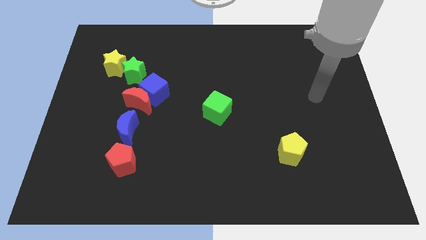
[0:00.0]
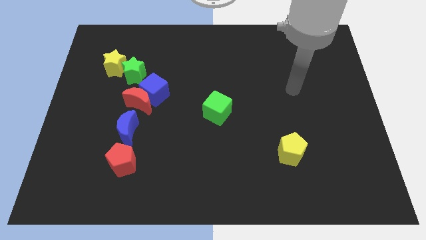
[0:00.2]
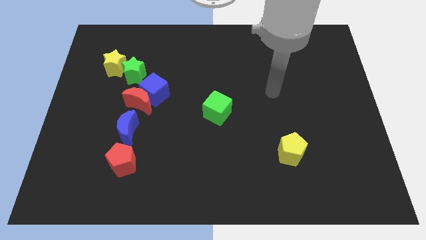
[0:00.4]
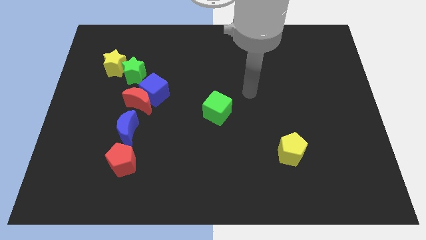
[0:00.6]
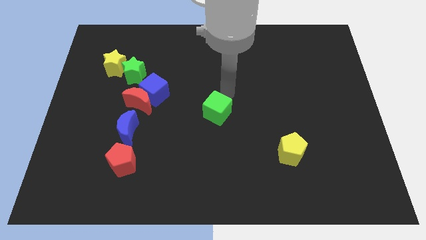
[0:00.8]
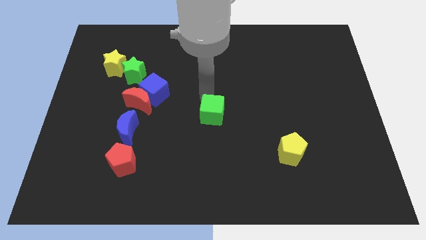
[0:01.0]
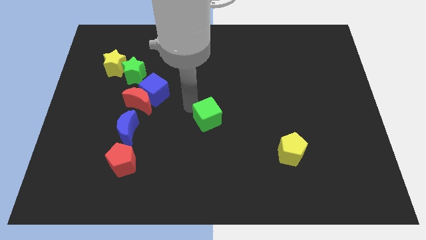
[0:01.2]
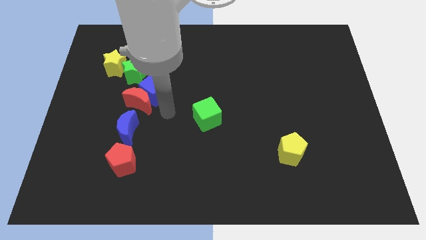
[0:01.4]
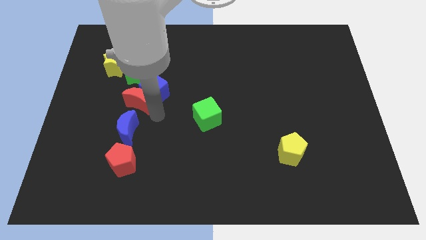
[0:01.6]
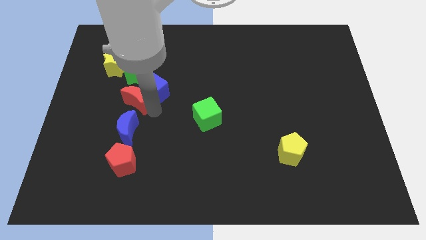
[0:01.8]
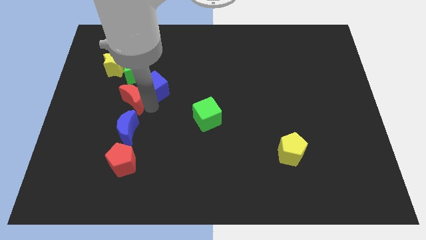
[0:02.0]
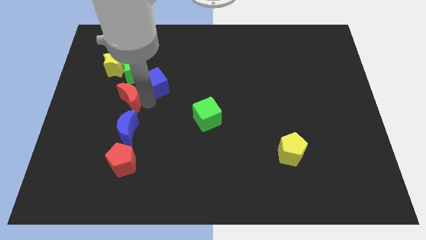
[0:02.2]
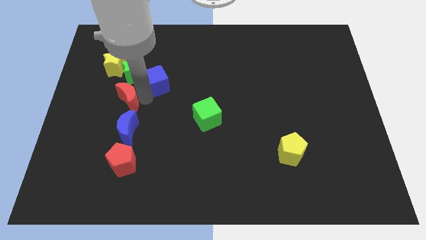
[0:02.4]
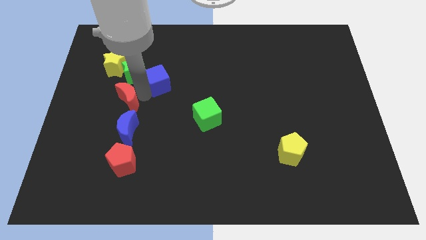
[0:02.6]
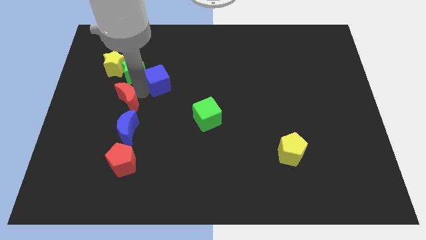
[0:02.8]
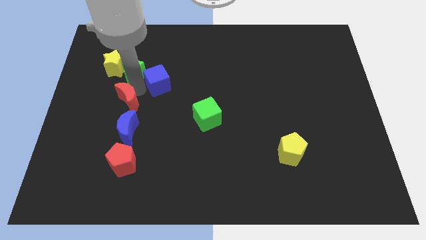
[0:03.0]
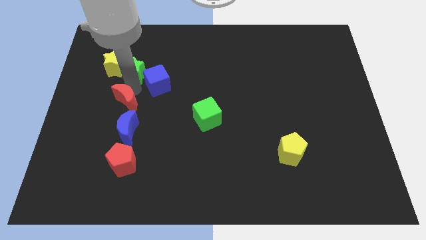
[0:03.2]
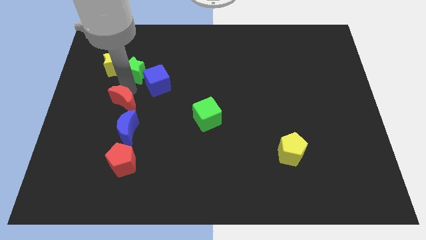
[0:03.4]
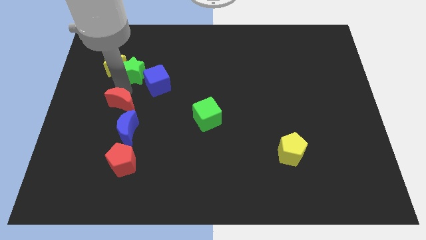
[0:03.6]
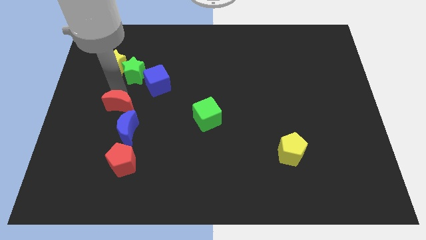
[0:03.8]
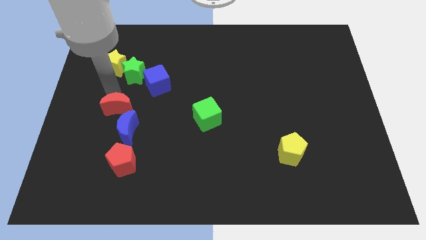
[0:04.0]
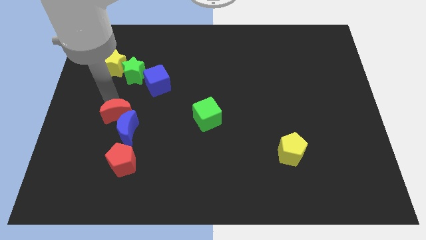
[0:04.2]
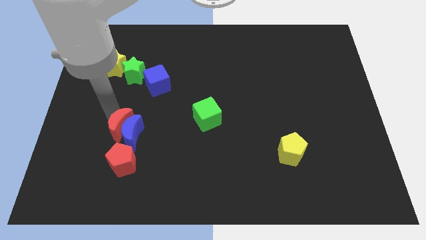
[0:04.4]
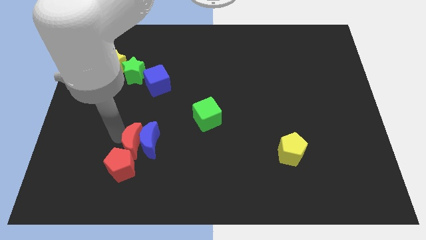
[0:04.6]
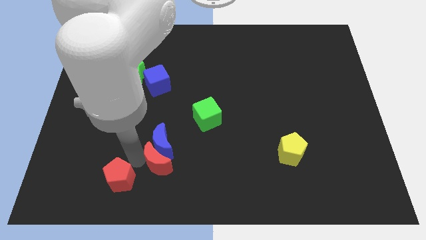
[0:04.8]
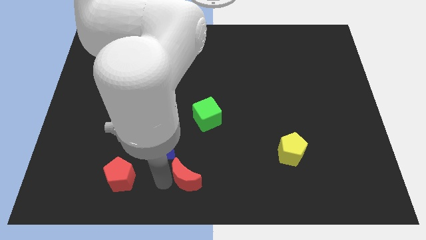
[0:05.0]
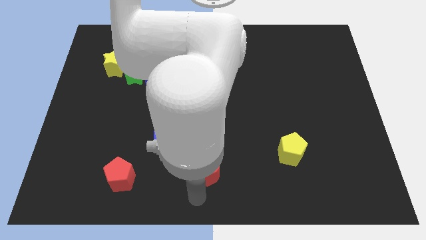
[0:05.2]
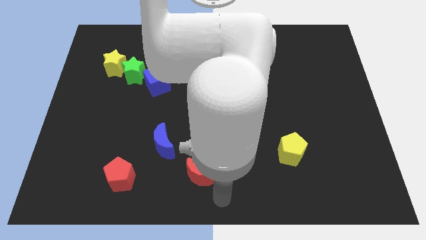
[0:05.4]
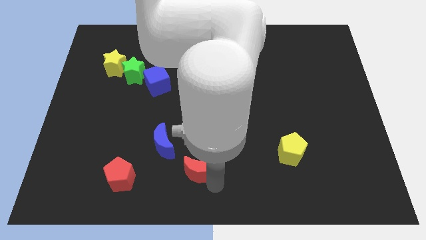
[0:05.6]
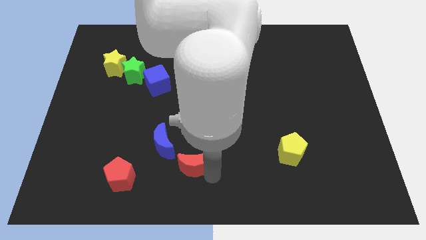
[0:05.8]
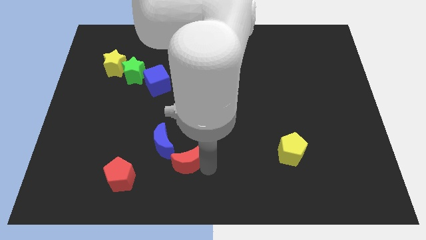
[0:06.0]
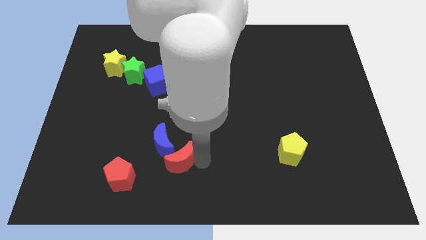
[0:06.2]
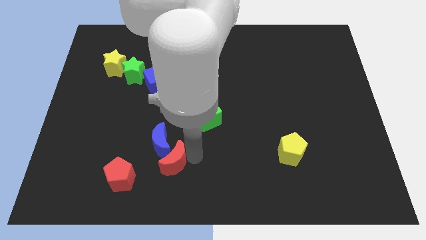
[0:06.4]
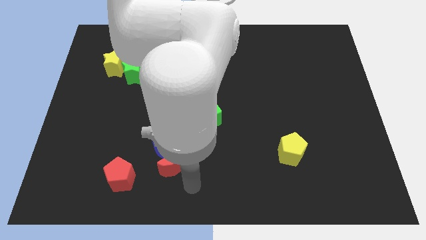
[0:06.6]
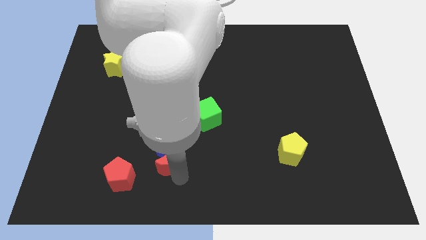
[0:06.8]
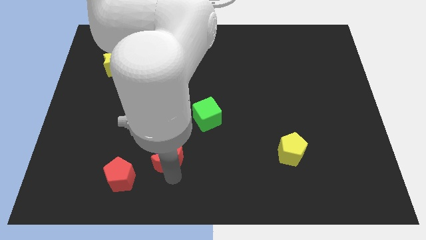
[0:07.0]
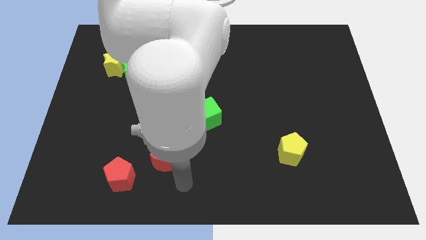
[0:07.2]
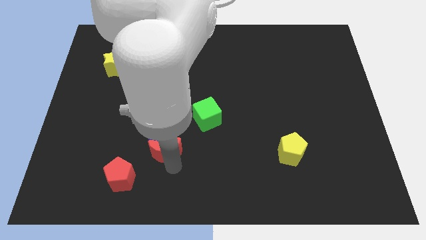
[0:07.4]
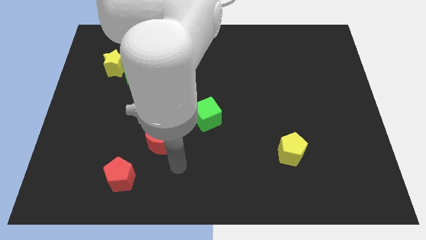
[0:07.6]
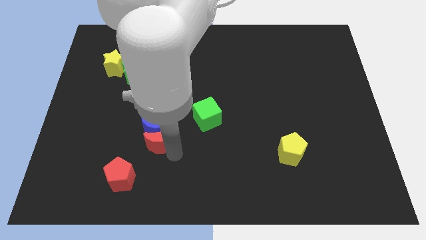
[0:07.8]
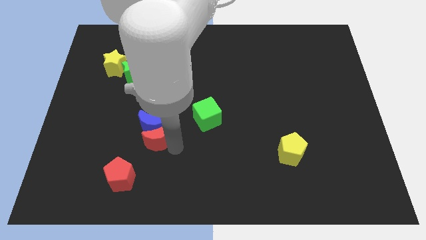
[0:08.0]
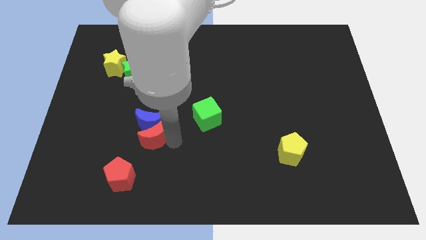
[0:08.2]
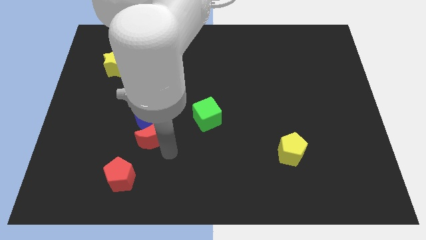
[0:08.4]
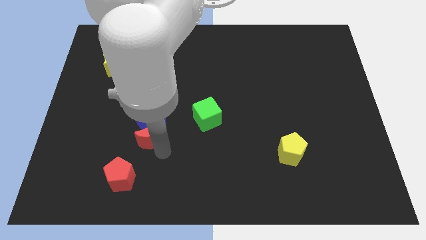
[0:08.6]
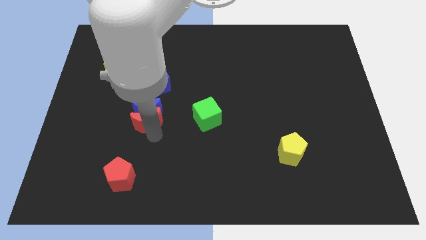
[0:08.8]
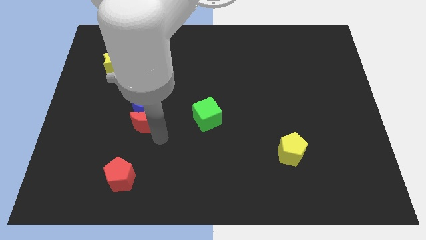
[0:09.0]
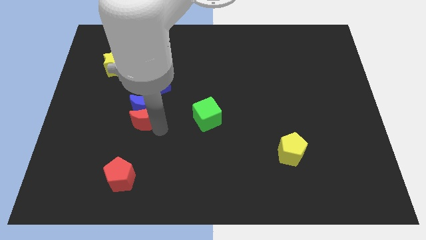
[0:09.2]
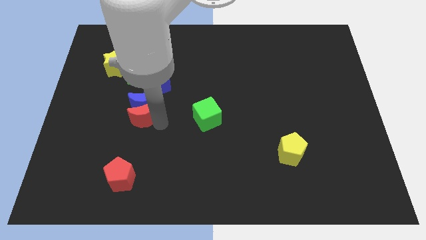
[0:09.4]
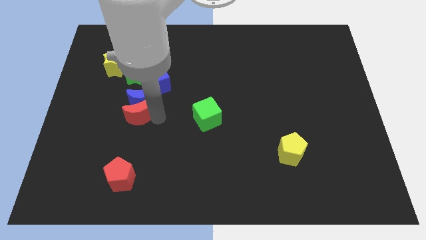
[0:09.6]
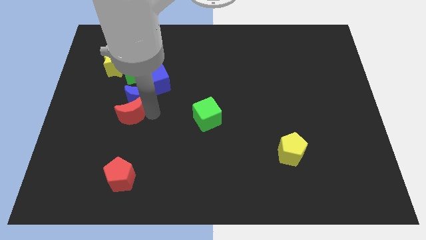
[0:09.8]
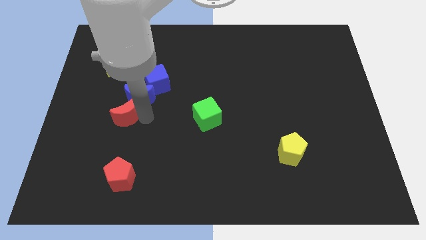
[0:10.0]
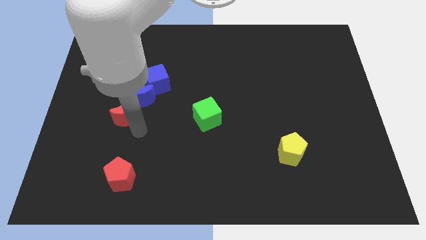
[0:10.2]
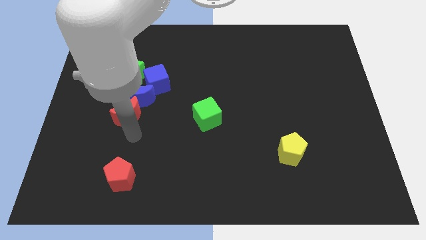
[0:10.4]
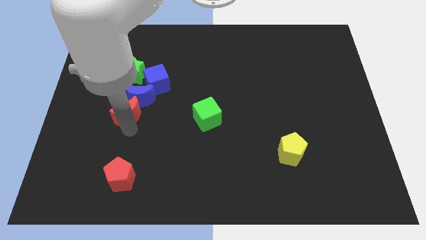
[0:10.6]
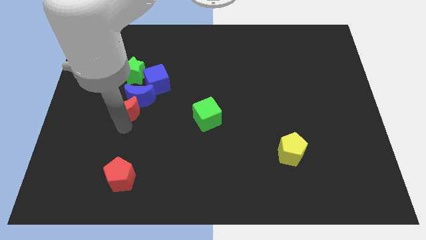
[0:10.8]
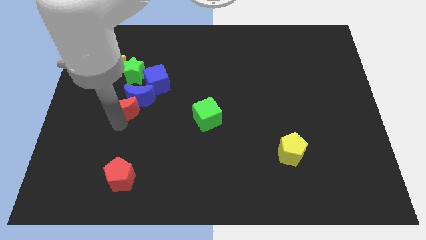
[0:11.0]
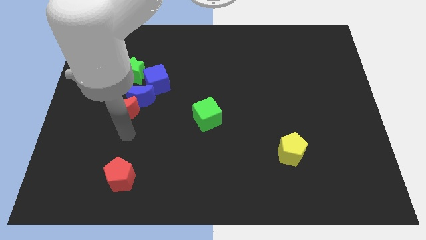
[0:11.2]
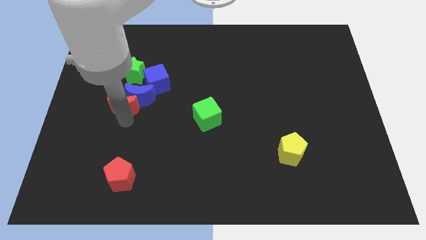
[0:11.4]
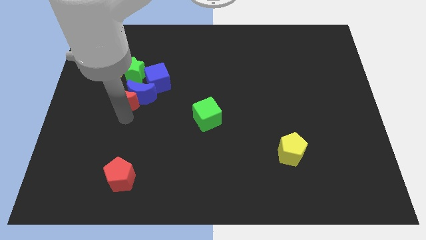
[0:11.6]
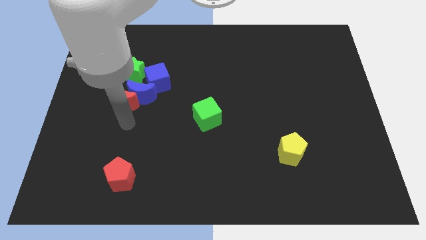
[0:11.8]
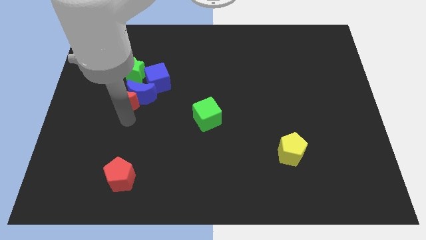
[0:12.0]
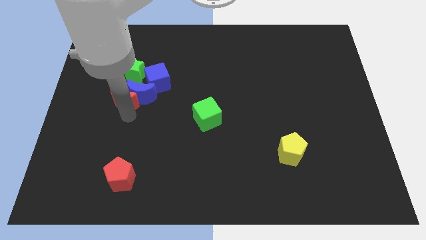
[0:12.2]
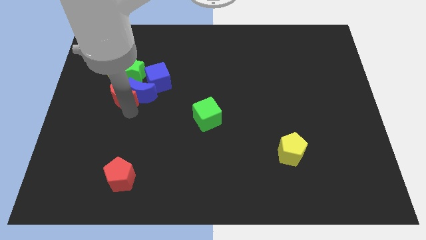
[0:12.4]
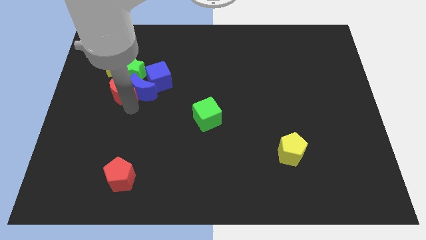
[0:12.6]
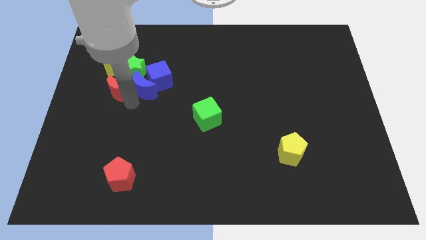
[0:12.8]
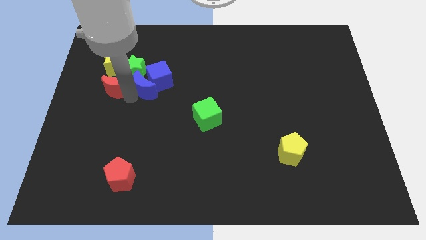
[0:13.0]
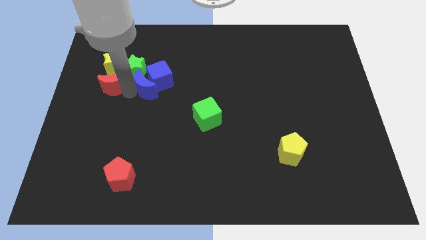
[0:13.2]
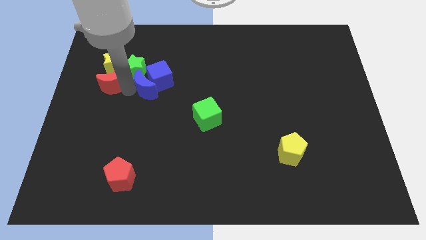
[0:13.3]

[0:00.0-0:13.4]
push the red moon to the yellow star
